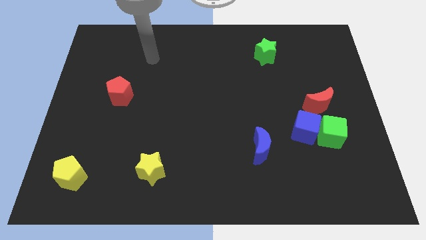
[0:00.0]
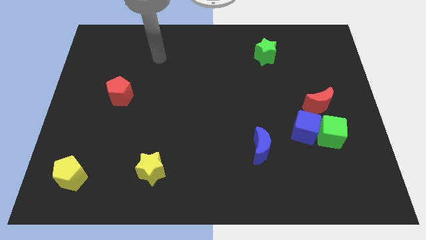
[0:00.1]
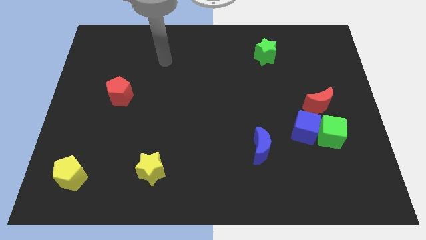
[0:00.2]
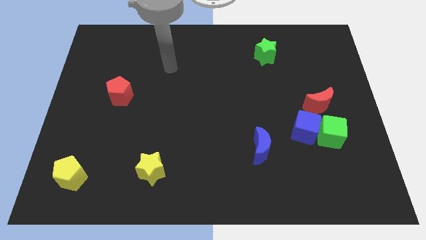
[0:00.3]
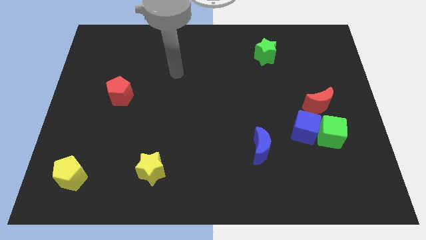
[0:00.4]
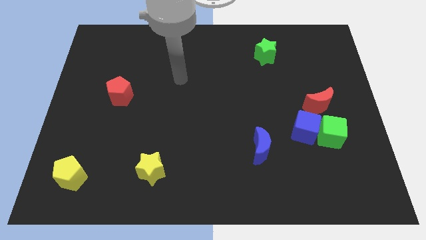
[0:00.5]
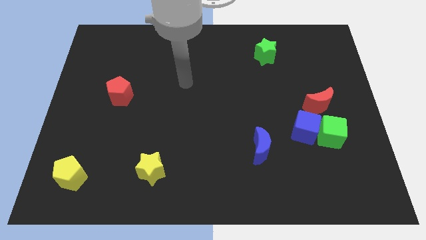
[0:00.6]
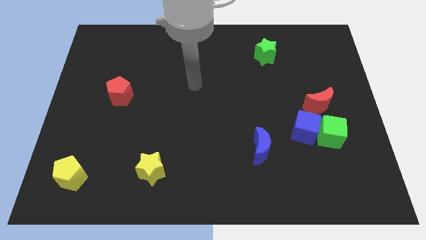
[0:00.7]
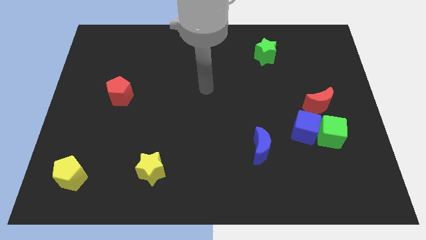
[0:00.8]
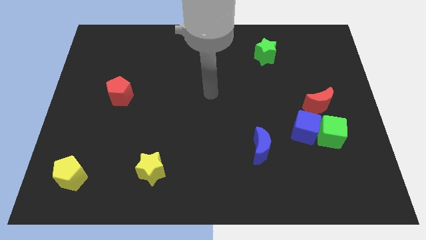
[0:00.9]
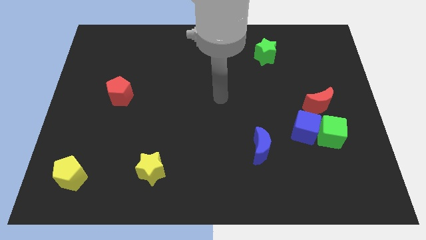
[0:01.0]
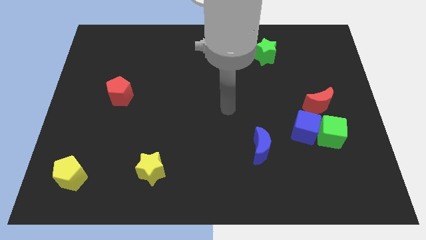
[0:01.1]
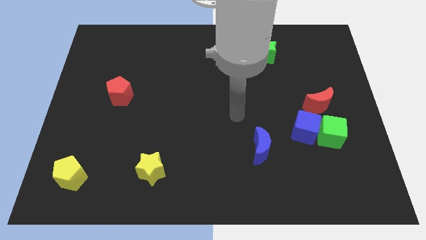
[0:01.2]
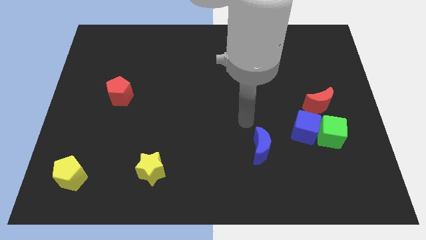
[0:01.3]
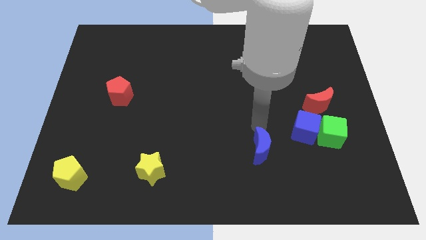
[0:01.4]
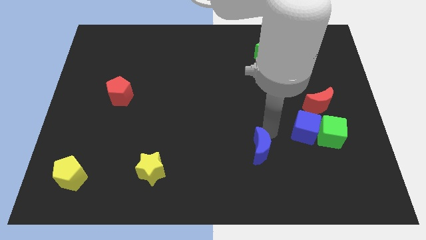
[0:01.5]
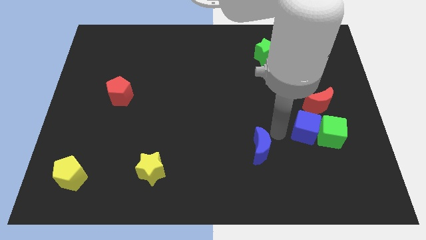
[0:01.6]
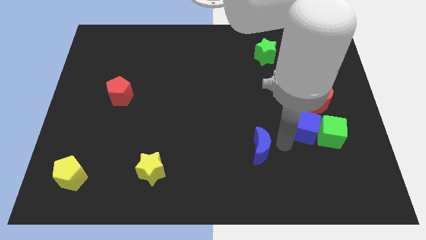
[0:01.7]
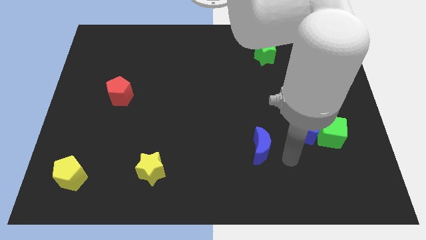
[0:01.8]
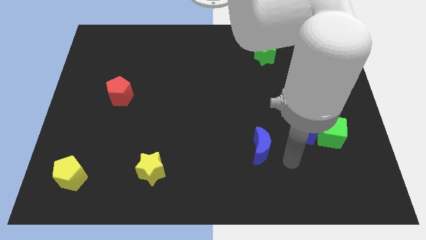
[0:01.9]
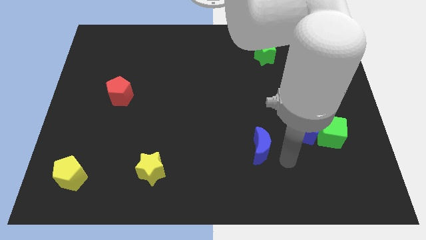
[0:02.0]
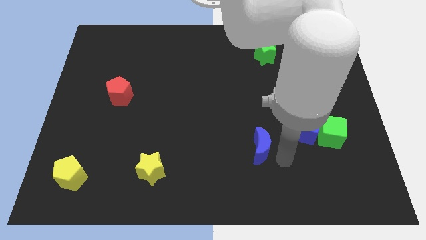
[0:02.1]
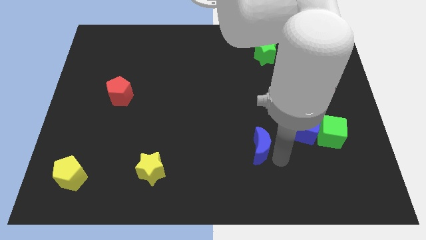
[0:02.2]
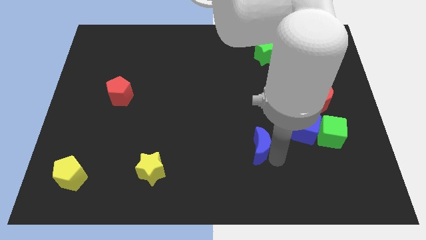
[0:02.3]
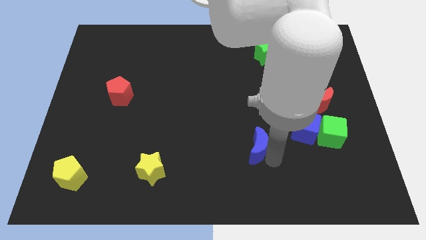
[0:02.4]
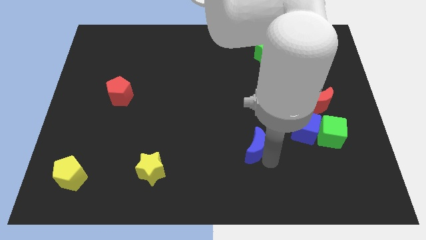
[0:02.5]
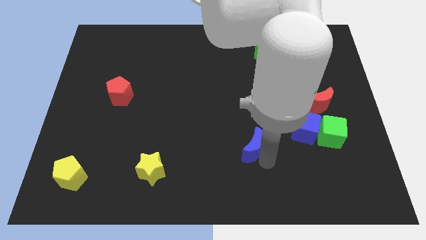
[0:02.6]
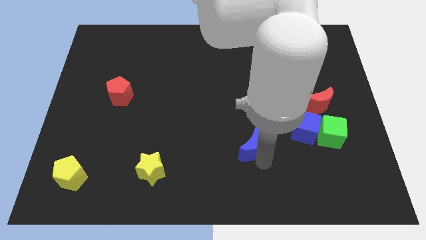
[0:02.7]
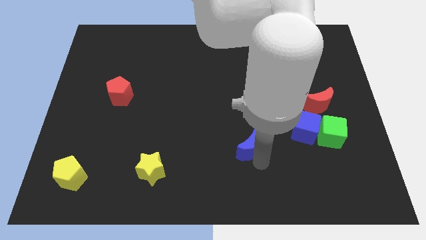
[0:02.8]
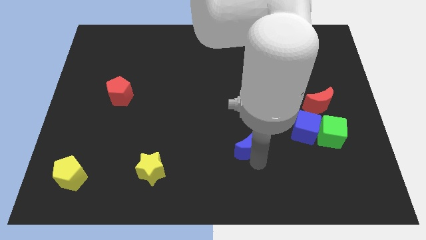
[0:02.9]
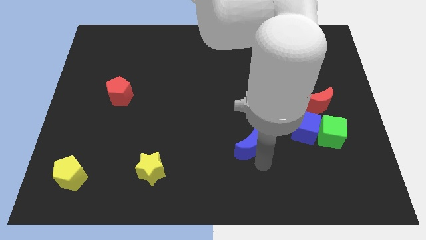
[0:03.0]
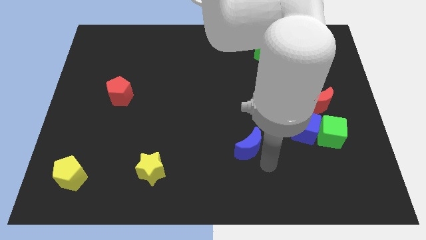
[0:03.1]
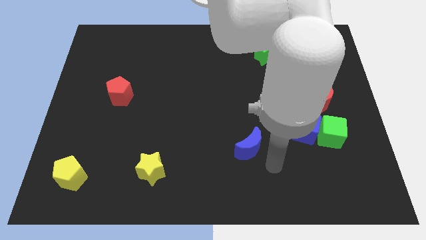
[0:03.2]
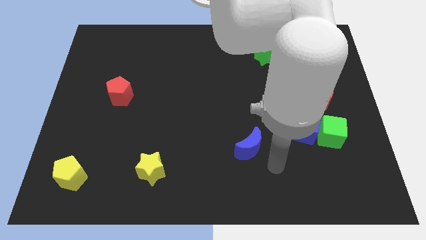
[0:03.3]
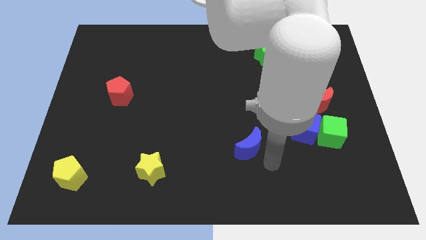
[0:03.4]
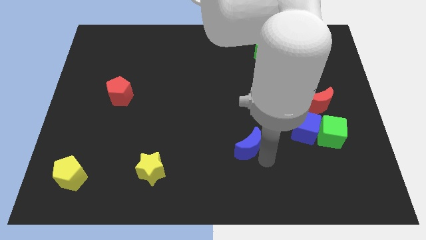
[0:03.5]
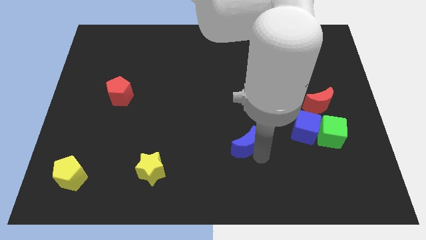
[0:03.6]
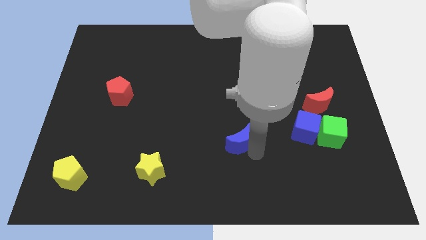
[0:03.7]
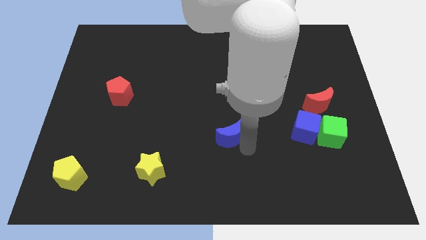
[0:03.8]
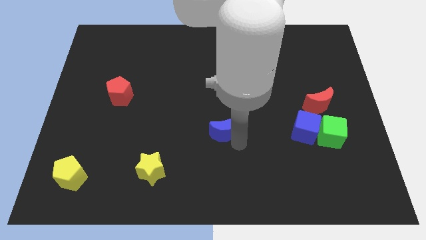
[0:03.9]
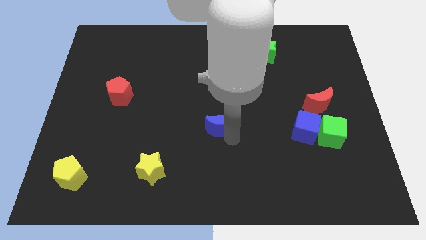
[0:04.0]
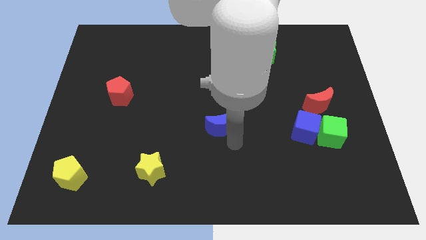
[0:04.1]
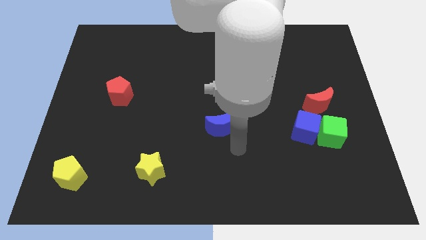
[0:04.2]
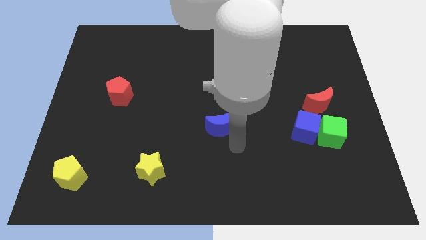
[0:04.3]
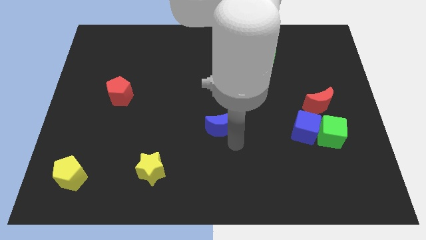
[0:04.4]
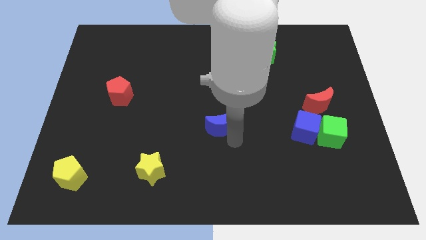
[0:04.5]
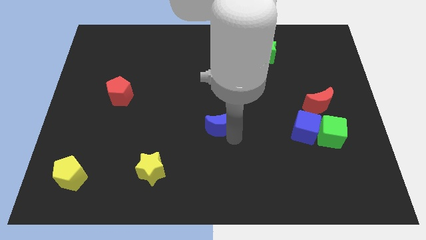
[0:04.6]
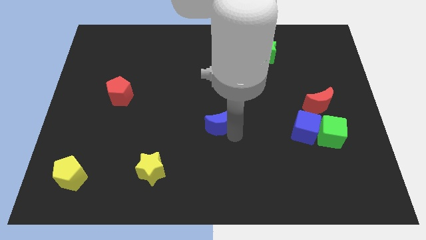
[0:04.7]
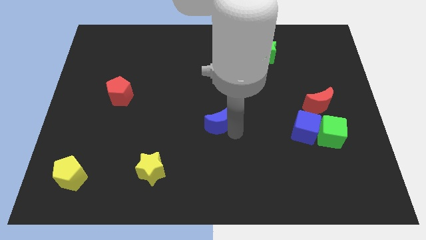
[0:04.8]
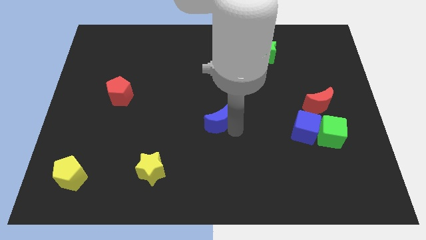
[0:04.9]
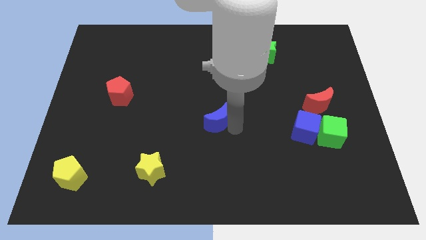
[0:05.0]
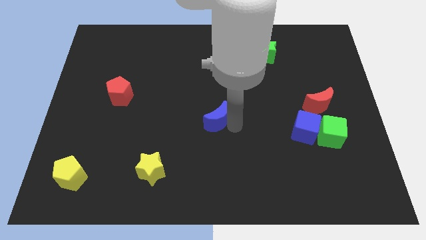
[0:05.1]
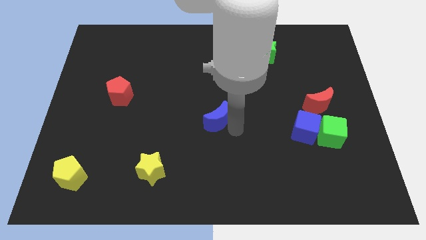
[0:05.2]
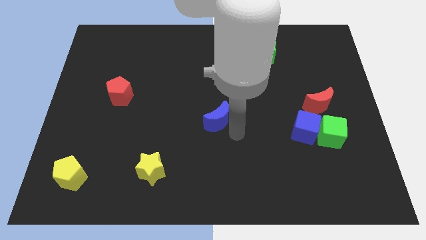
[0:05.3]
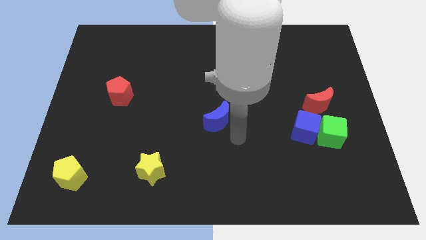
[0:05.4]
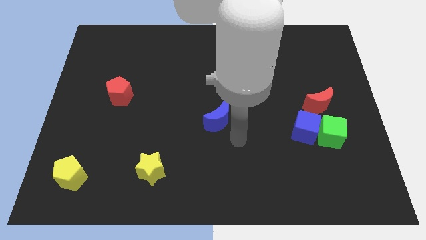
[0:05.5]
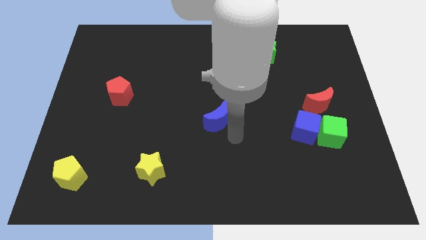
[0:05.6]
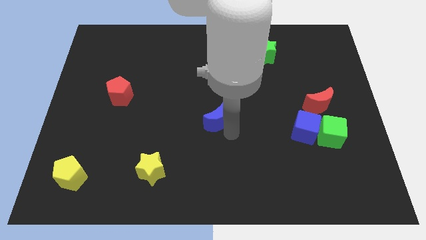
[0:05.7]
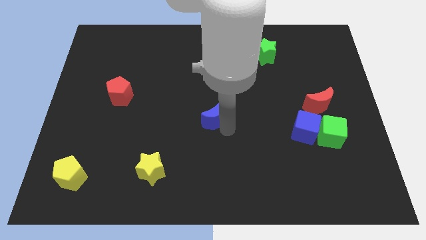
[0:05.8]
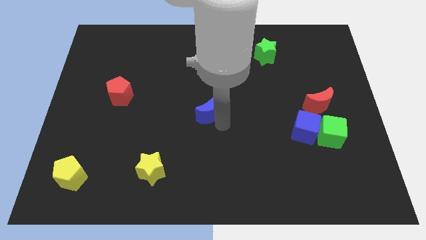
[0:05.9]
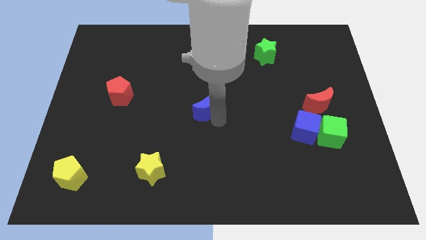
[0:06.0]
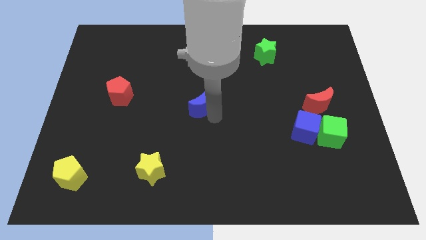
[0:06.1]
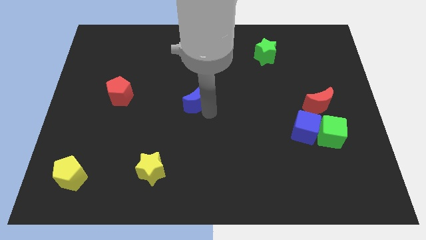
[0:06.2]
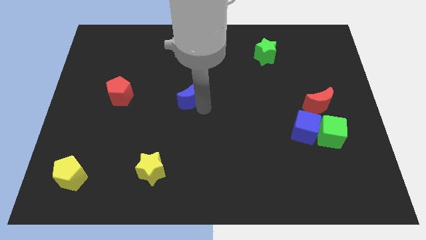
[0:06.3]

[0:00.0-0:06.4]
slide the blue moon upwards and left

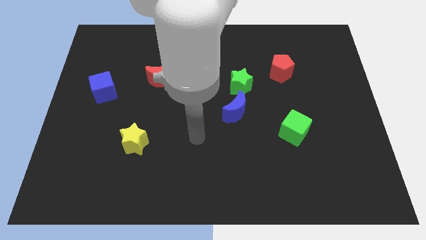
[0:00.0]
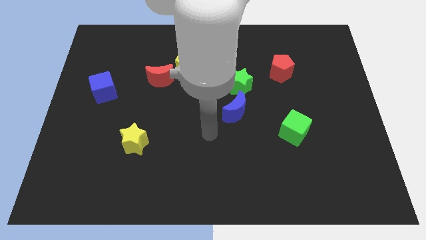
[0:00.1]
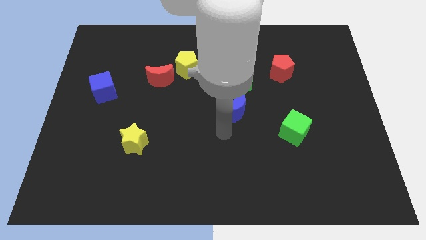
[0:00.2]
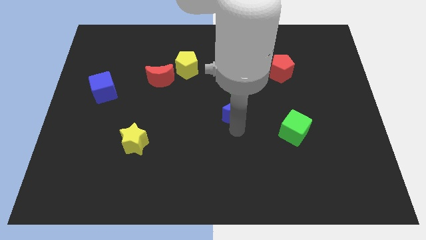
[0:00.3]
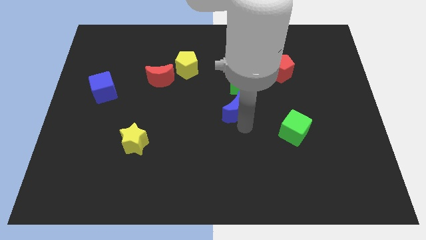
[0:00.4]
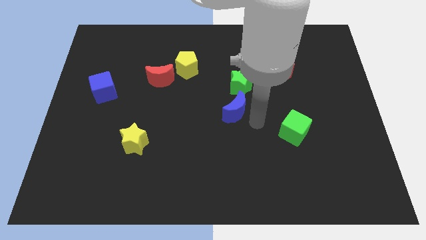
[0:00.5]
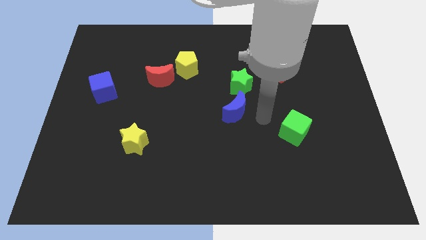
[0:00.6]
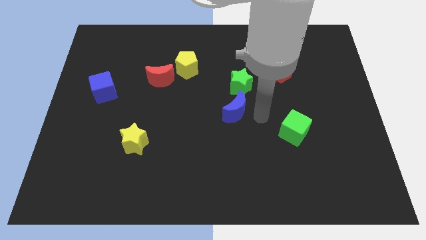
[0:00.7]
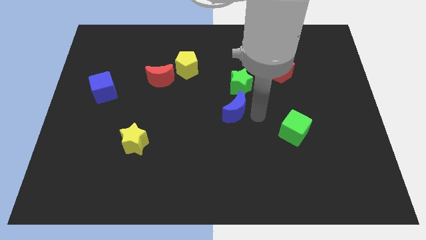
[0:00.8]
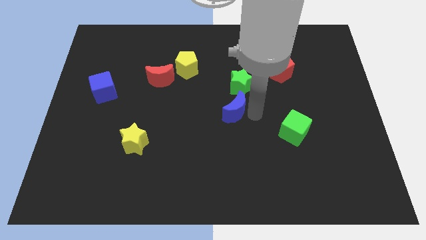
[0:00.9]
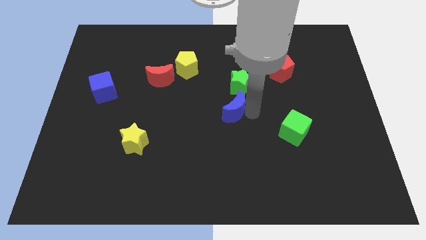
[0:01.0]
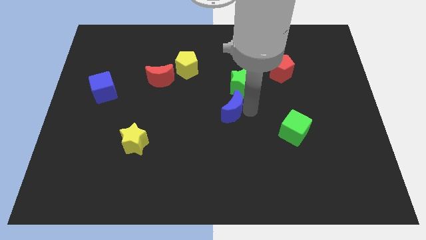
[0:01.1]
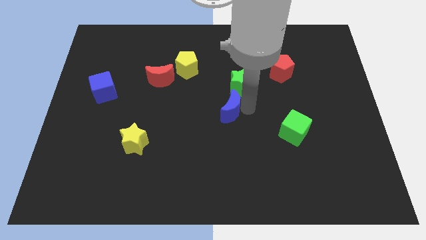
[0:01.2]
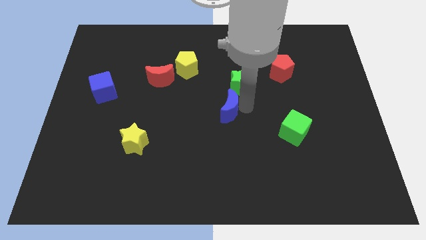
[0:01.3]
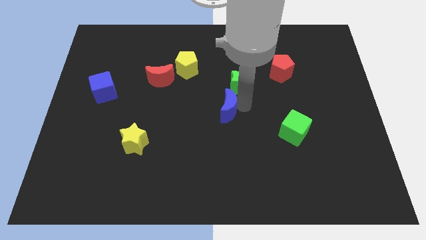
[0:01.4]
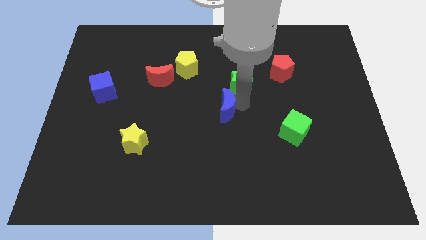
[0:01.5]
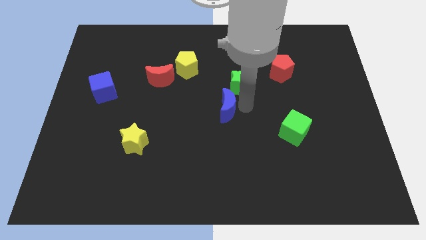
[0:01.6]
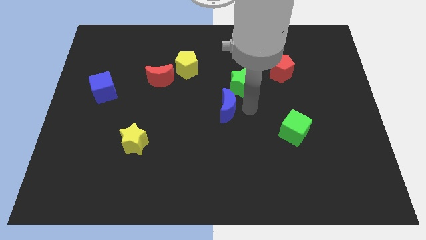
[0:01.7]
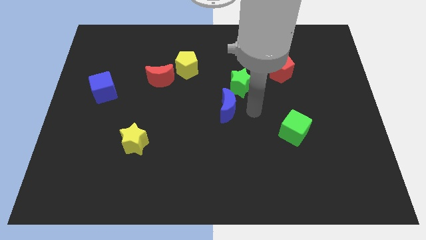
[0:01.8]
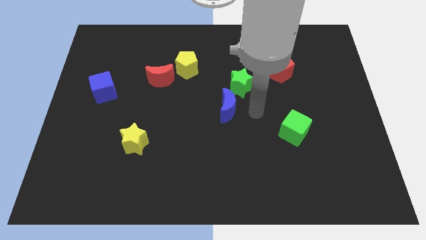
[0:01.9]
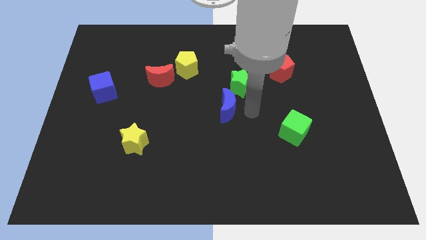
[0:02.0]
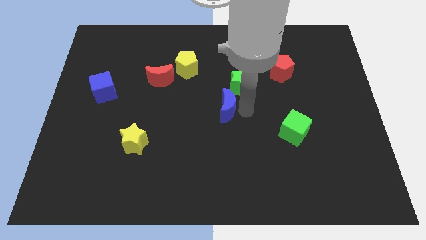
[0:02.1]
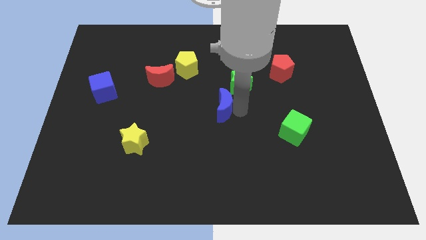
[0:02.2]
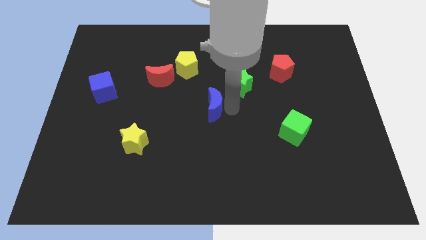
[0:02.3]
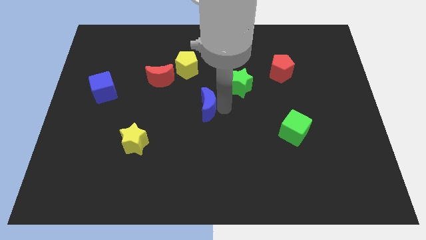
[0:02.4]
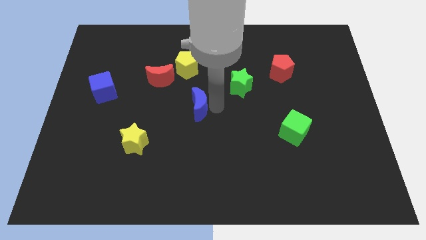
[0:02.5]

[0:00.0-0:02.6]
push the blue moon slightly to the left
